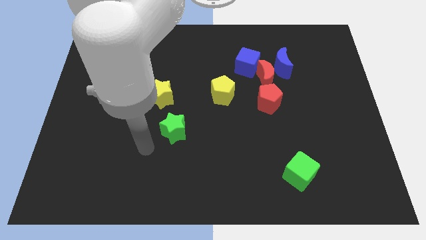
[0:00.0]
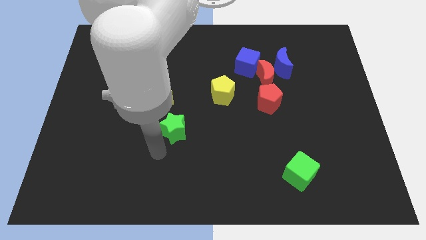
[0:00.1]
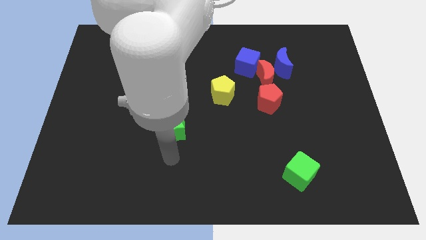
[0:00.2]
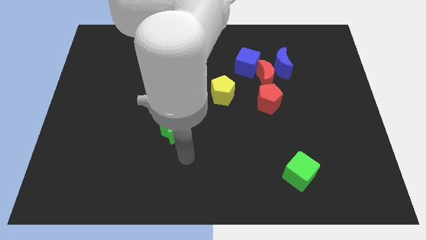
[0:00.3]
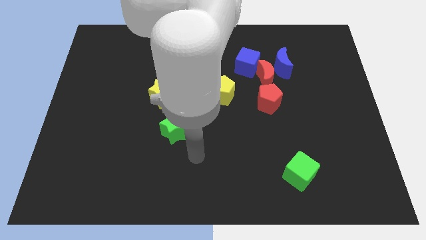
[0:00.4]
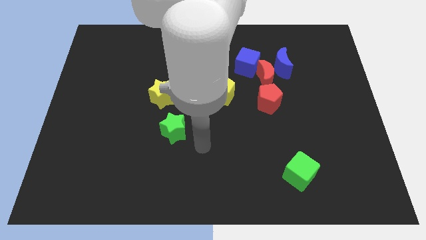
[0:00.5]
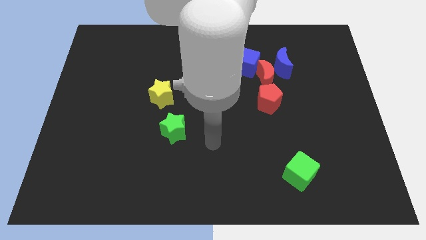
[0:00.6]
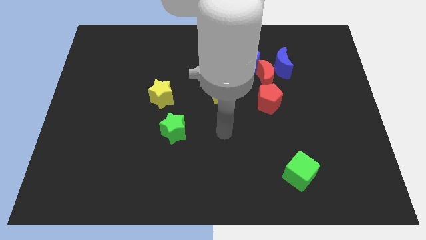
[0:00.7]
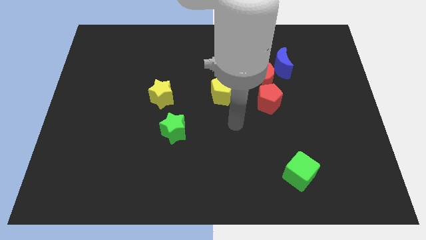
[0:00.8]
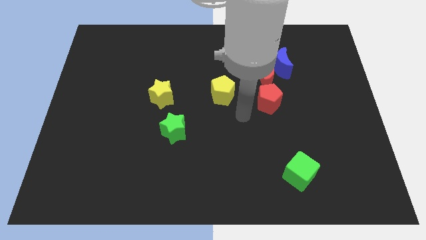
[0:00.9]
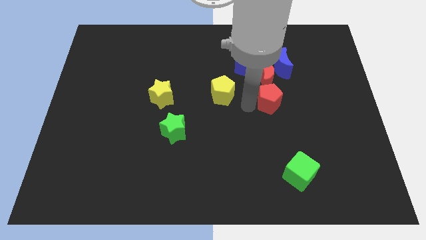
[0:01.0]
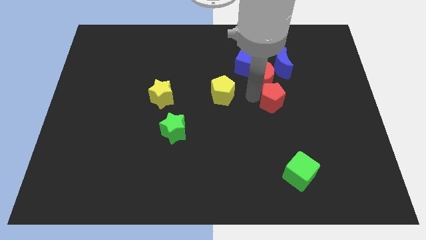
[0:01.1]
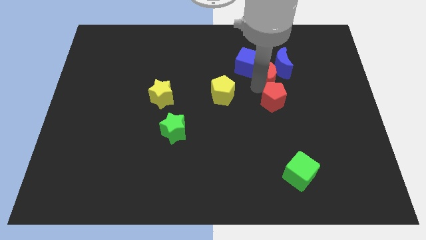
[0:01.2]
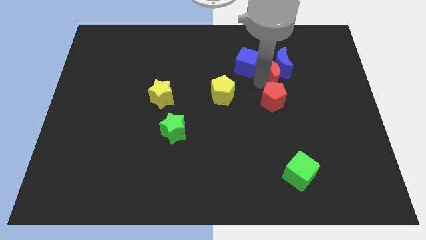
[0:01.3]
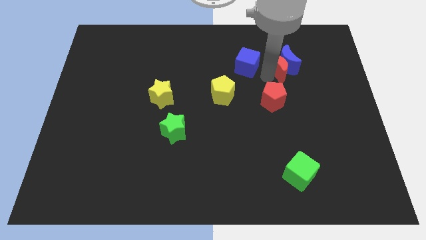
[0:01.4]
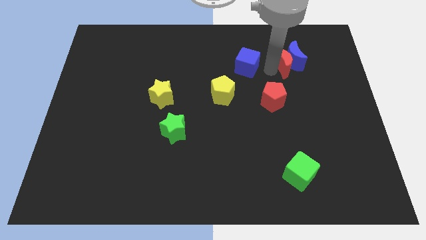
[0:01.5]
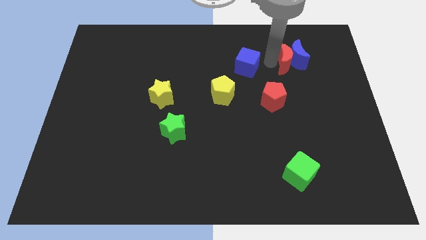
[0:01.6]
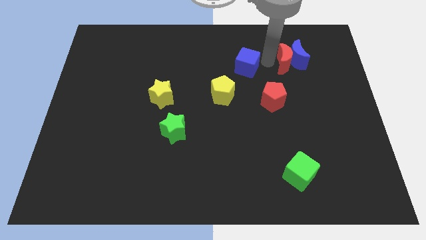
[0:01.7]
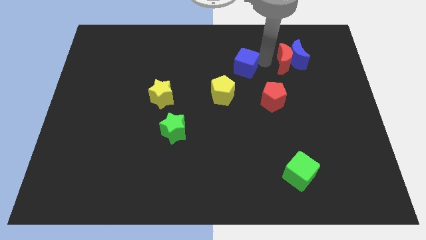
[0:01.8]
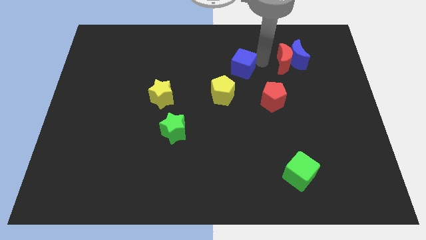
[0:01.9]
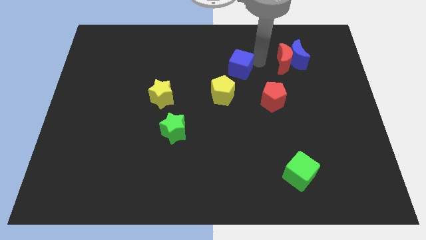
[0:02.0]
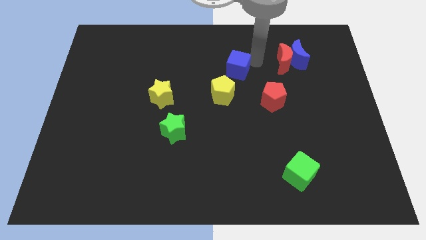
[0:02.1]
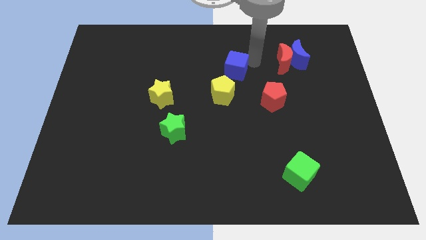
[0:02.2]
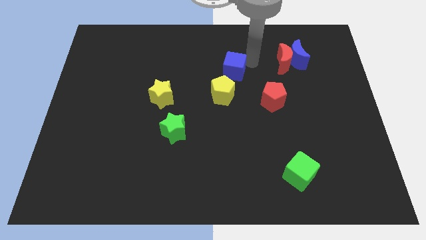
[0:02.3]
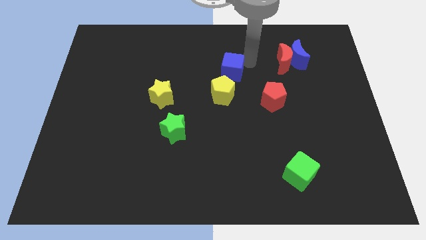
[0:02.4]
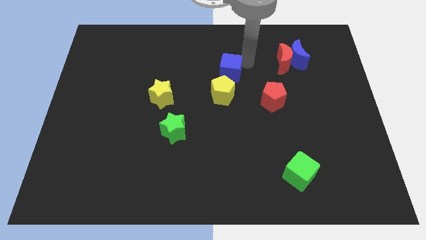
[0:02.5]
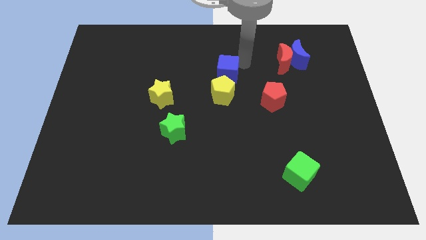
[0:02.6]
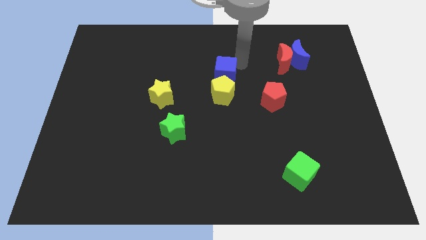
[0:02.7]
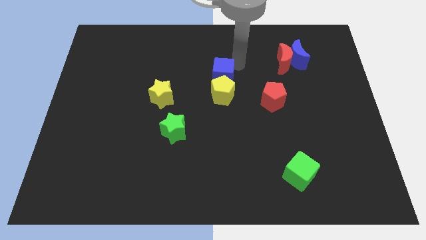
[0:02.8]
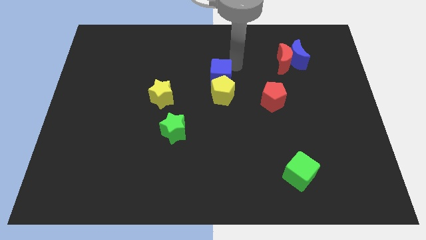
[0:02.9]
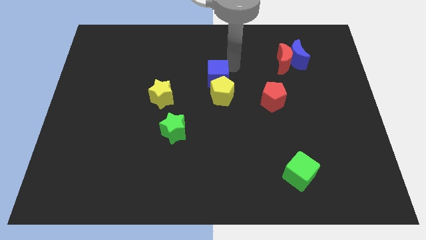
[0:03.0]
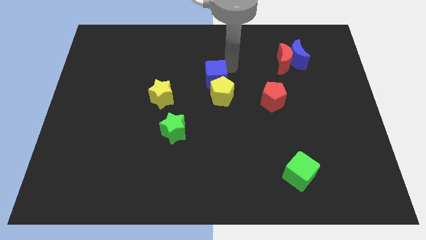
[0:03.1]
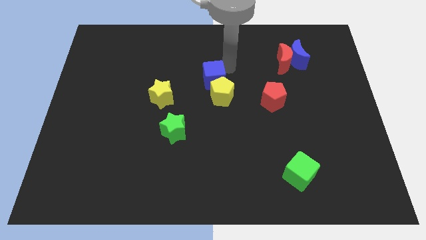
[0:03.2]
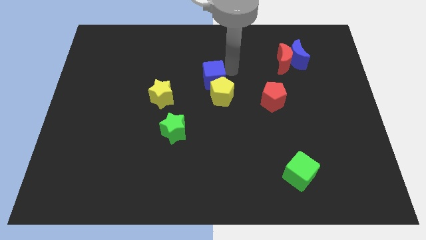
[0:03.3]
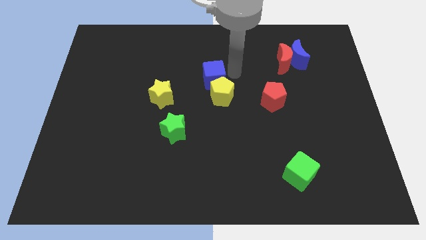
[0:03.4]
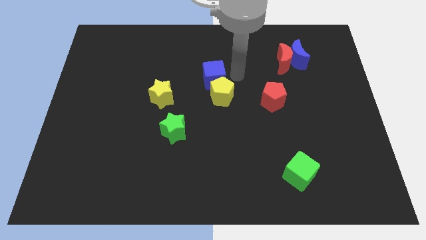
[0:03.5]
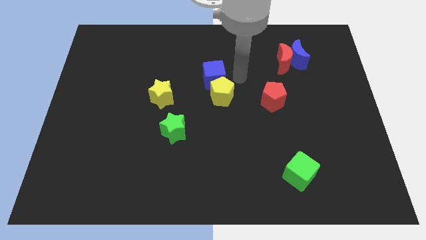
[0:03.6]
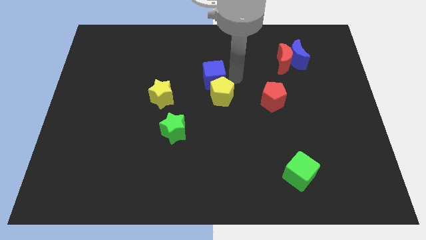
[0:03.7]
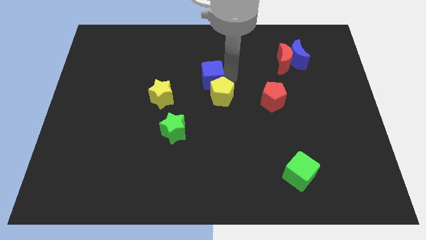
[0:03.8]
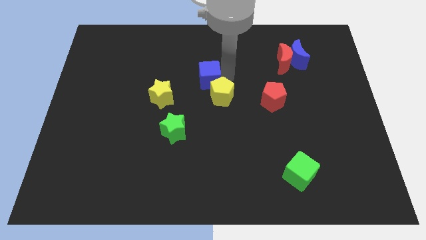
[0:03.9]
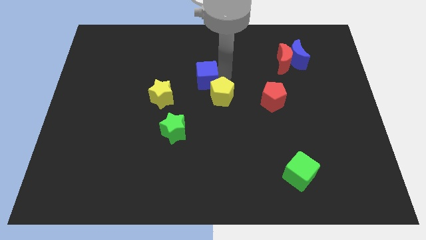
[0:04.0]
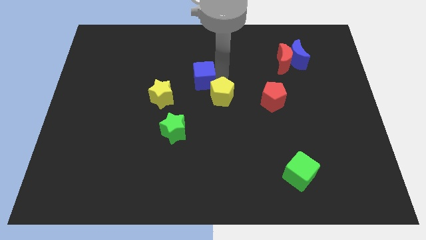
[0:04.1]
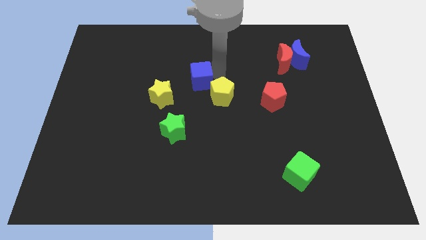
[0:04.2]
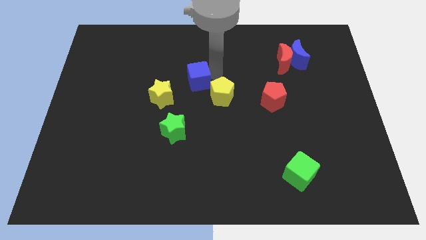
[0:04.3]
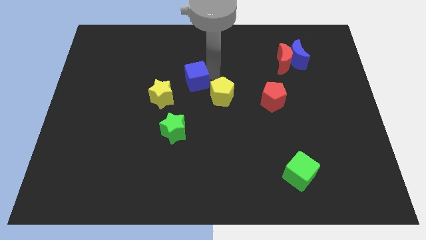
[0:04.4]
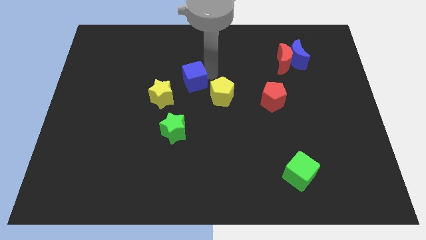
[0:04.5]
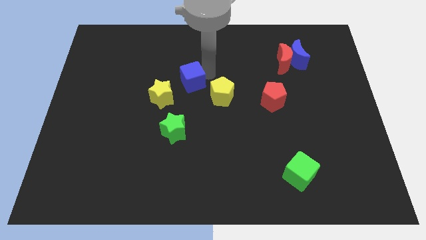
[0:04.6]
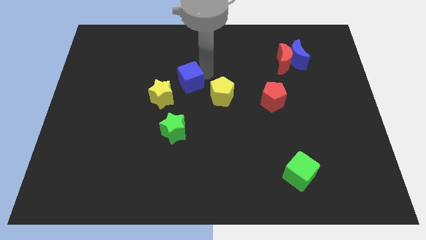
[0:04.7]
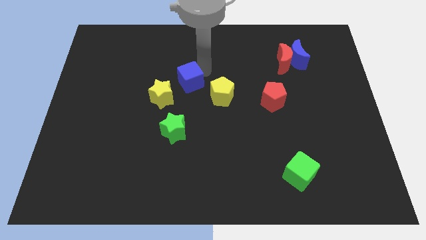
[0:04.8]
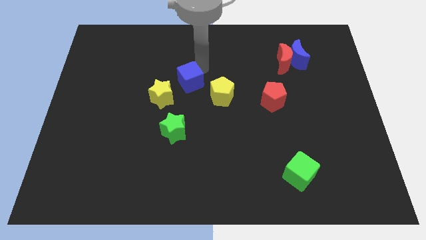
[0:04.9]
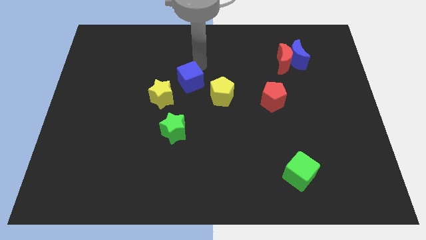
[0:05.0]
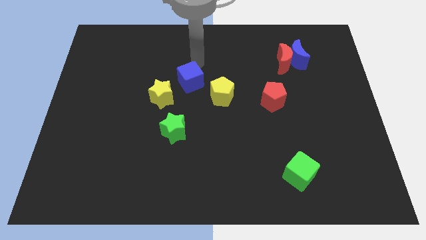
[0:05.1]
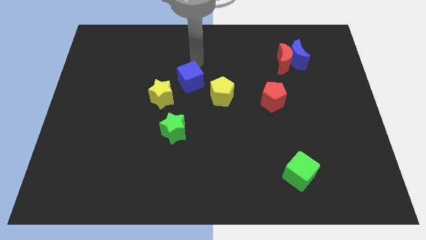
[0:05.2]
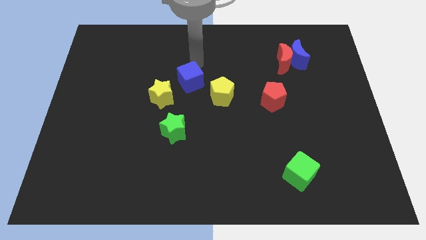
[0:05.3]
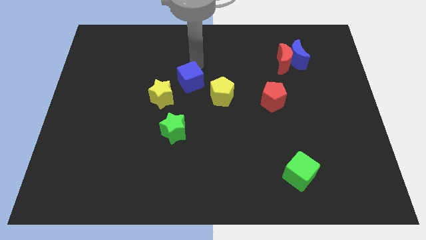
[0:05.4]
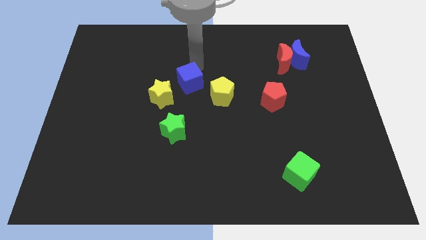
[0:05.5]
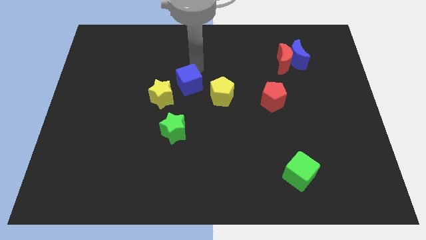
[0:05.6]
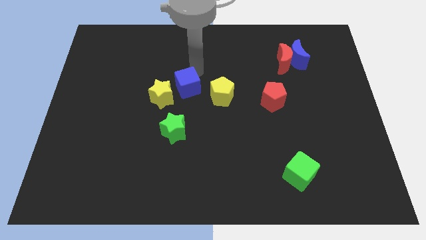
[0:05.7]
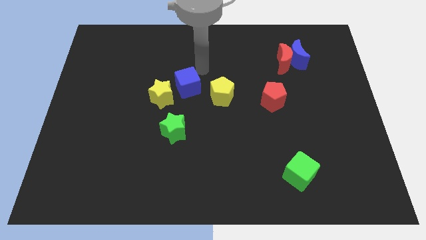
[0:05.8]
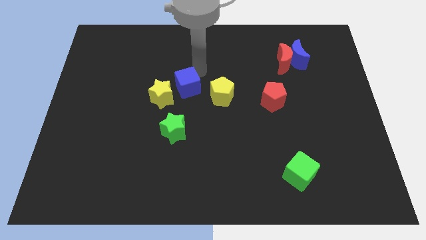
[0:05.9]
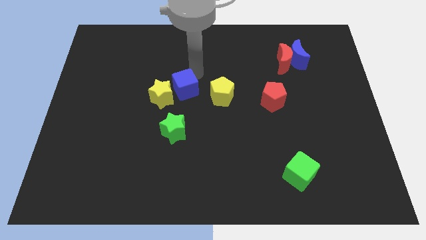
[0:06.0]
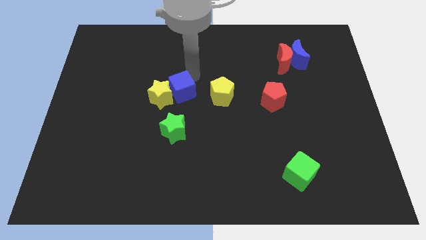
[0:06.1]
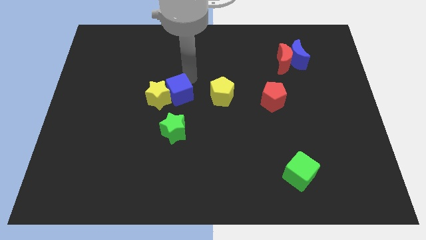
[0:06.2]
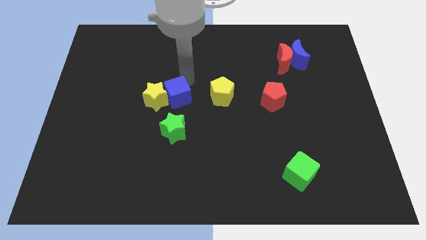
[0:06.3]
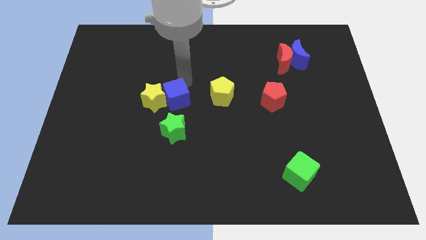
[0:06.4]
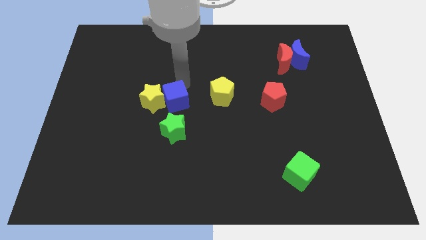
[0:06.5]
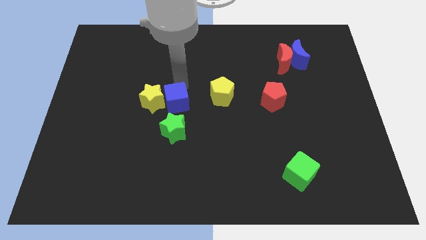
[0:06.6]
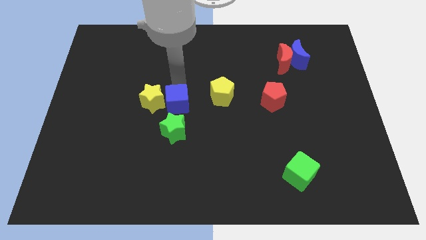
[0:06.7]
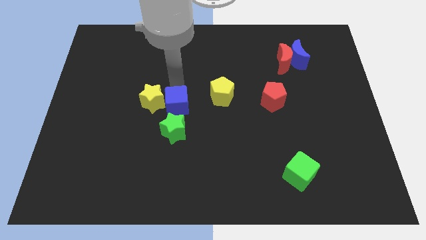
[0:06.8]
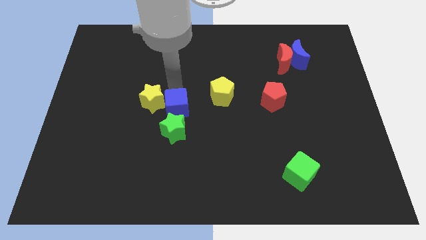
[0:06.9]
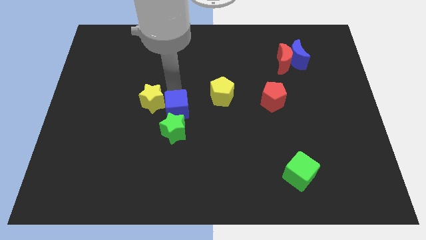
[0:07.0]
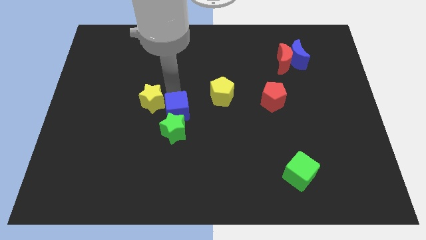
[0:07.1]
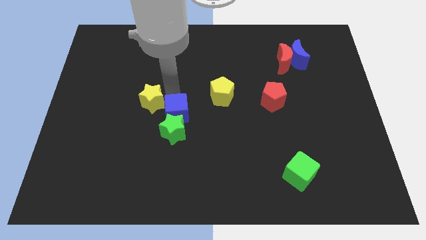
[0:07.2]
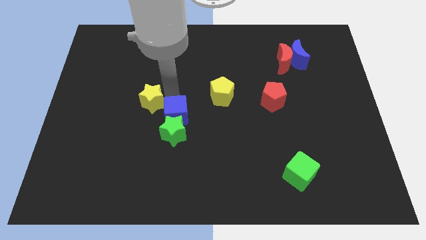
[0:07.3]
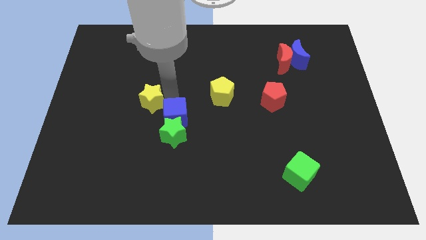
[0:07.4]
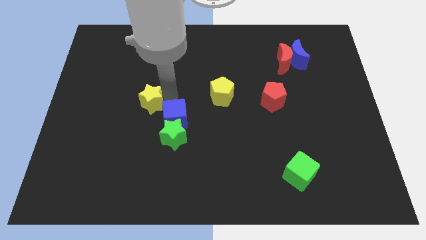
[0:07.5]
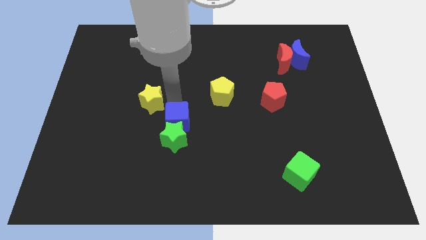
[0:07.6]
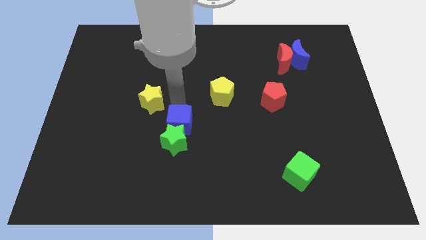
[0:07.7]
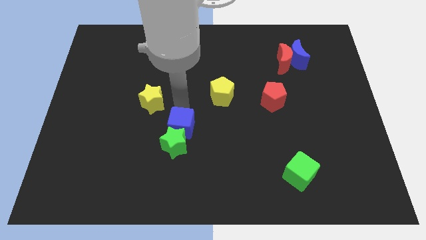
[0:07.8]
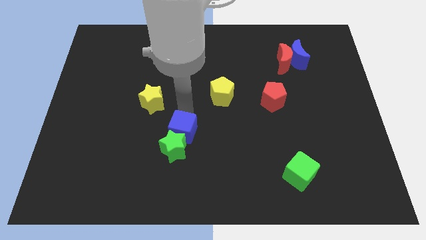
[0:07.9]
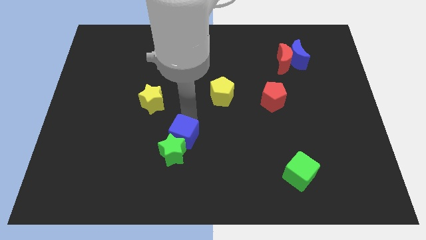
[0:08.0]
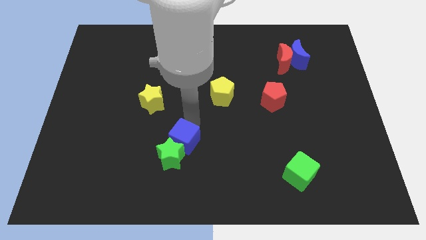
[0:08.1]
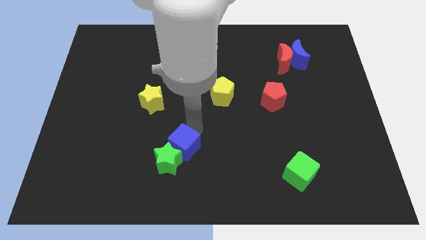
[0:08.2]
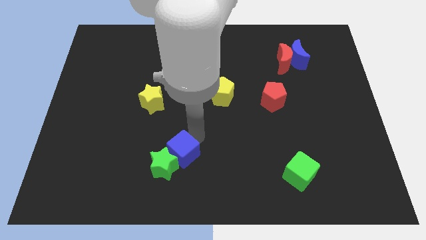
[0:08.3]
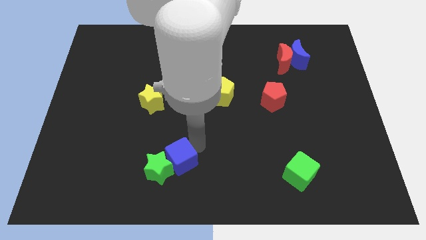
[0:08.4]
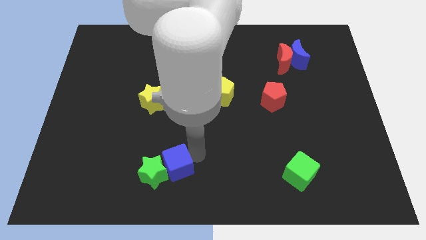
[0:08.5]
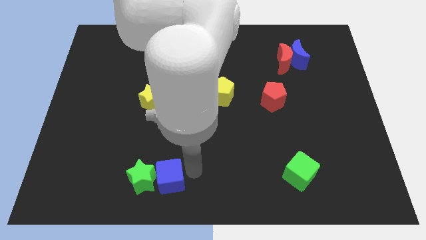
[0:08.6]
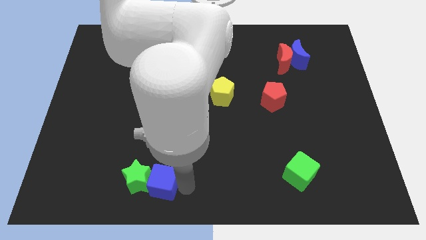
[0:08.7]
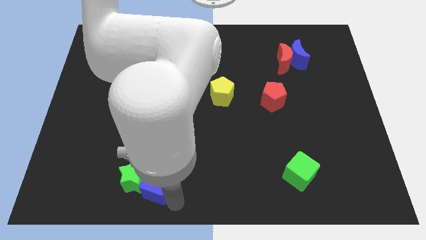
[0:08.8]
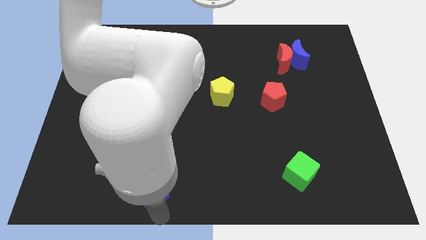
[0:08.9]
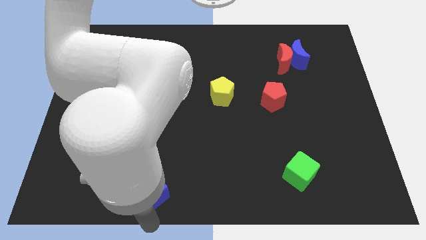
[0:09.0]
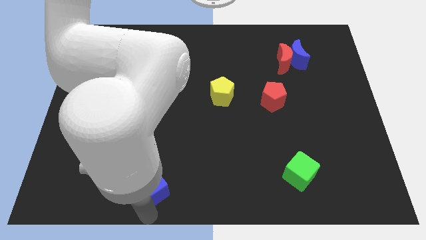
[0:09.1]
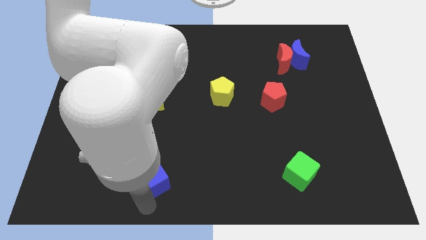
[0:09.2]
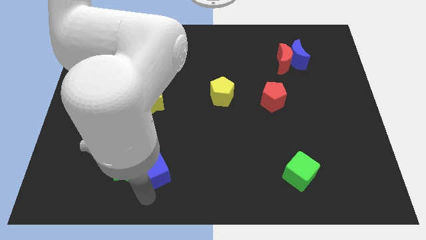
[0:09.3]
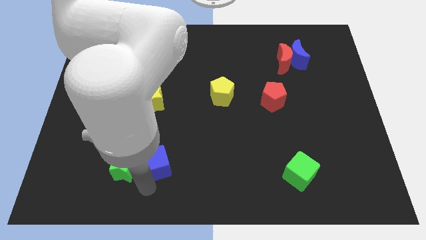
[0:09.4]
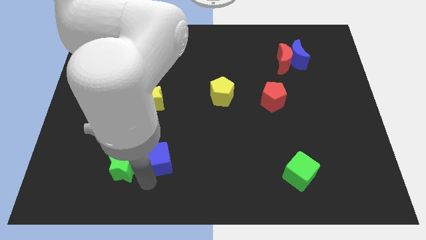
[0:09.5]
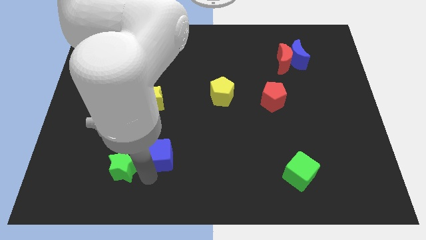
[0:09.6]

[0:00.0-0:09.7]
slide the blue cube to the bottom side of the yellow star
